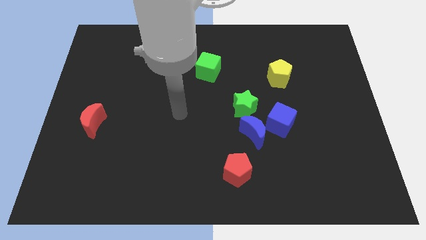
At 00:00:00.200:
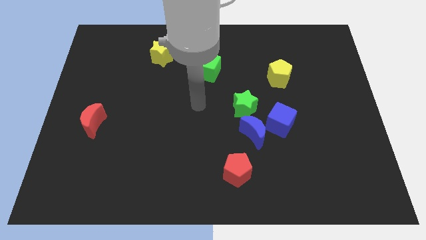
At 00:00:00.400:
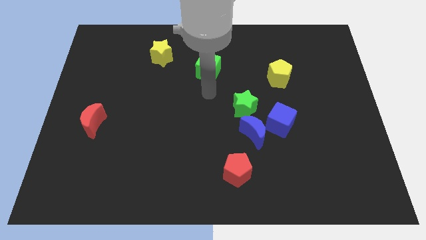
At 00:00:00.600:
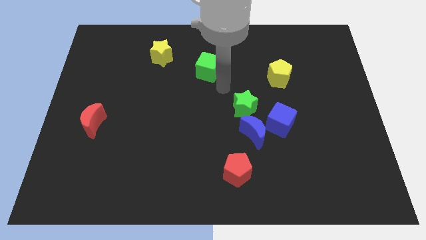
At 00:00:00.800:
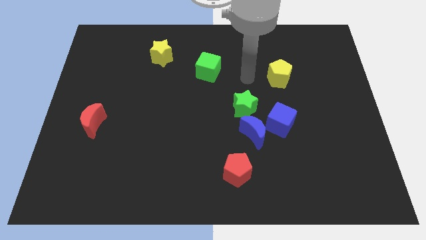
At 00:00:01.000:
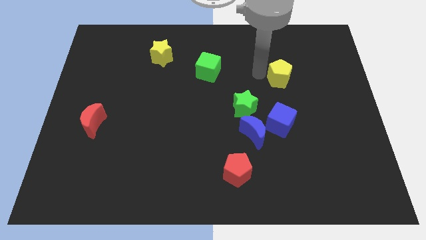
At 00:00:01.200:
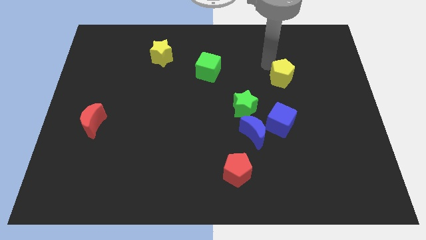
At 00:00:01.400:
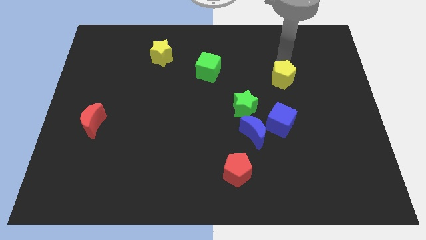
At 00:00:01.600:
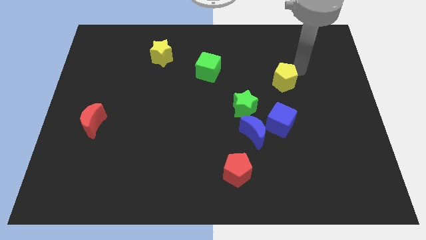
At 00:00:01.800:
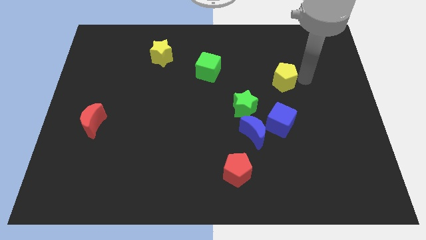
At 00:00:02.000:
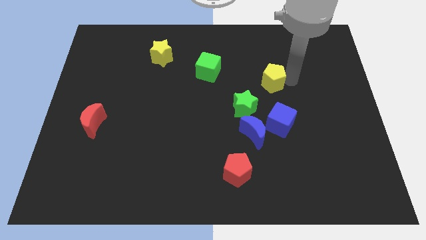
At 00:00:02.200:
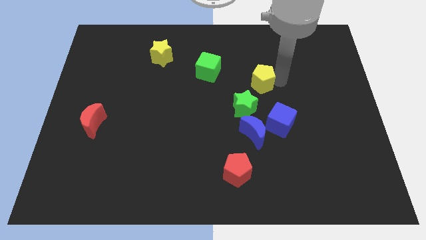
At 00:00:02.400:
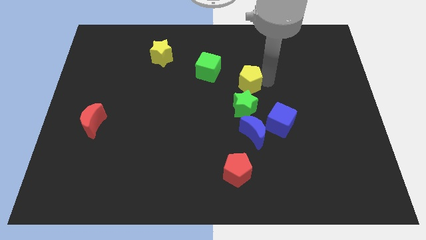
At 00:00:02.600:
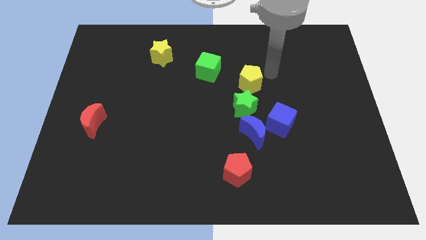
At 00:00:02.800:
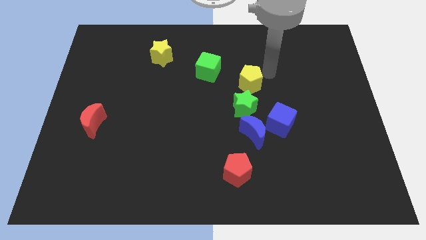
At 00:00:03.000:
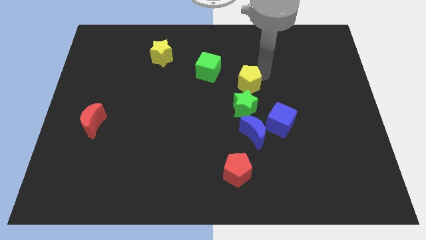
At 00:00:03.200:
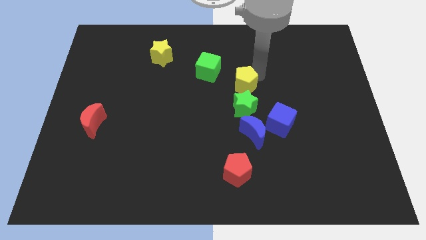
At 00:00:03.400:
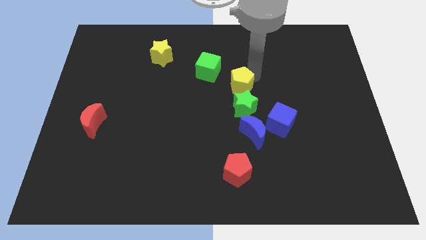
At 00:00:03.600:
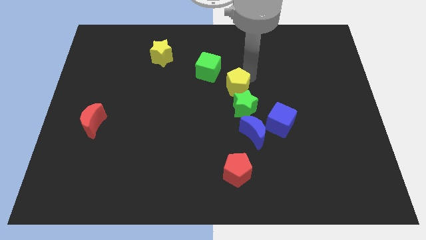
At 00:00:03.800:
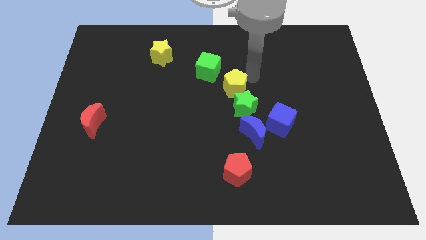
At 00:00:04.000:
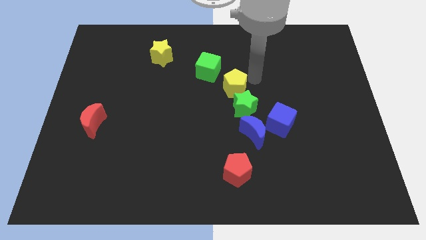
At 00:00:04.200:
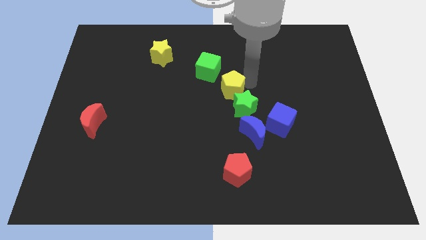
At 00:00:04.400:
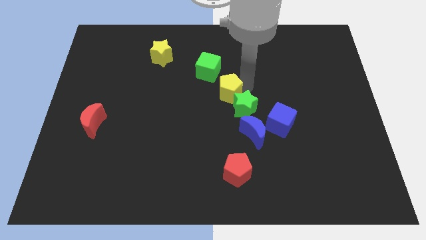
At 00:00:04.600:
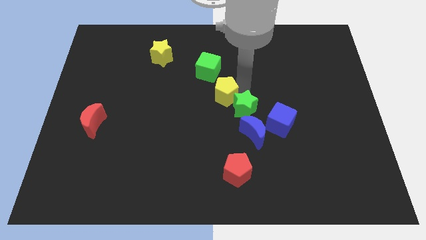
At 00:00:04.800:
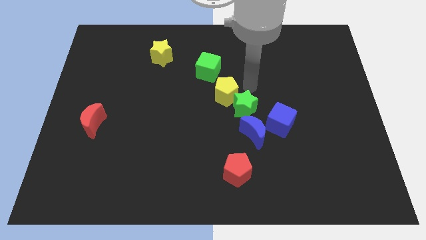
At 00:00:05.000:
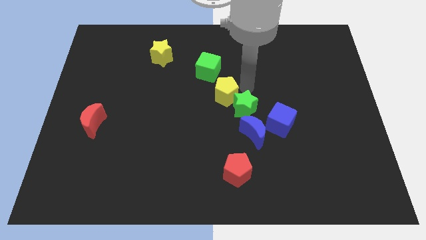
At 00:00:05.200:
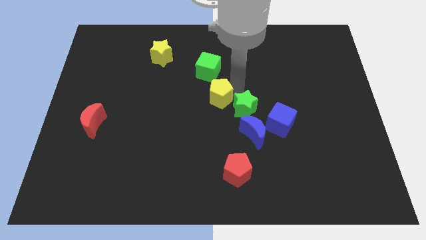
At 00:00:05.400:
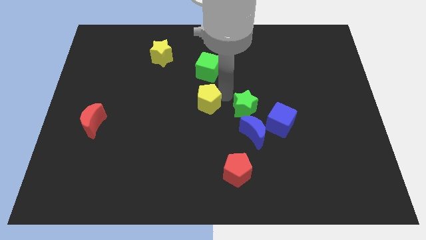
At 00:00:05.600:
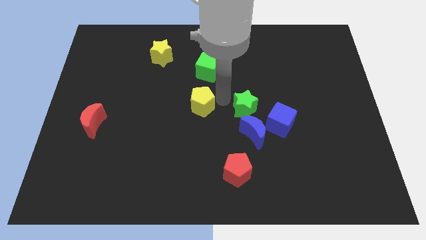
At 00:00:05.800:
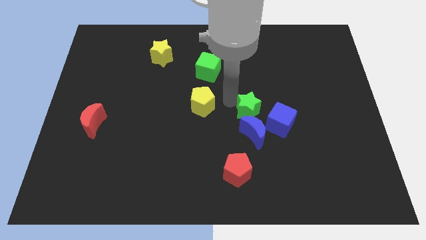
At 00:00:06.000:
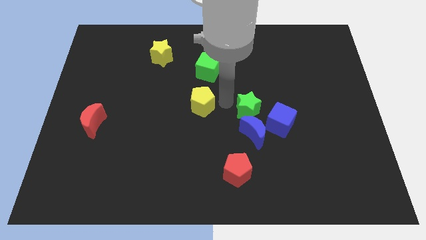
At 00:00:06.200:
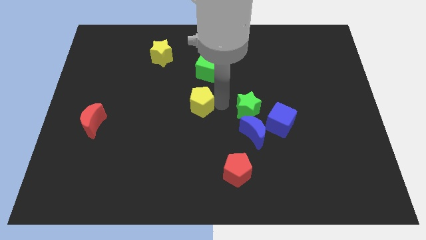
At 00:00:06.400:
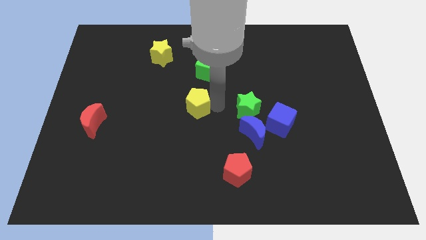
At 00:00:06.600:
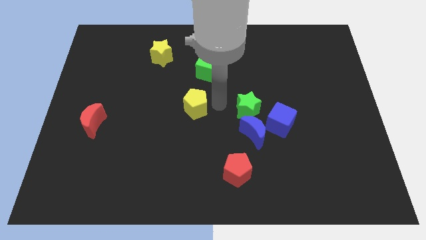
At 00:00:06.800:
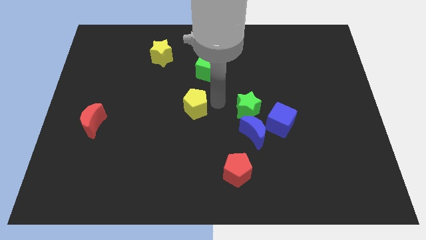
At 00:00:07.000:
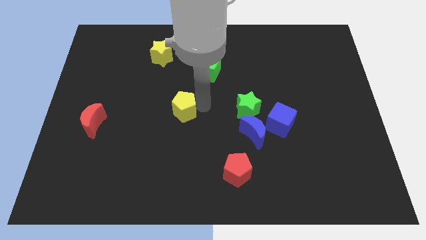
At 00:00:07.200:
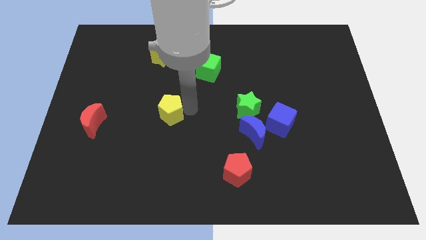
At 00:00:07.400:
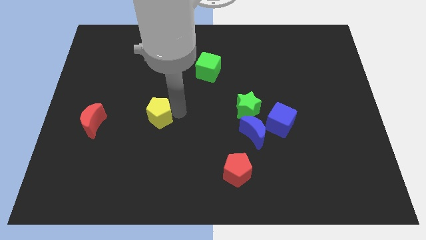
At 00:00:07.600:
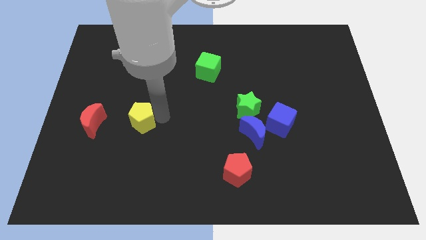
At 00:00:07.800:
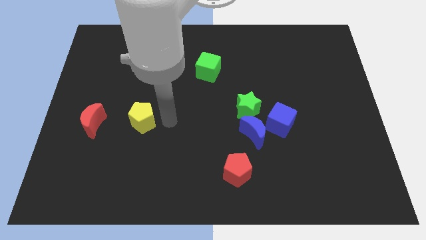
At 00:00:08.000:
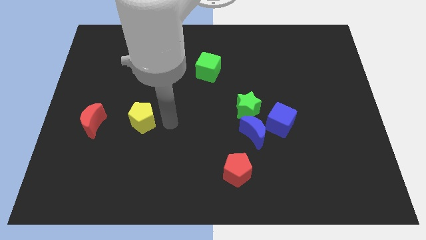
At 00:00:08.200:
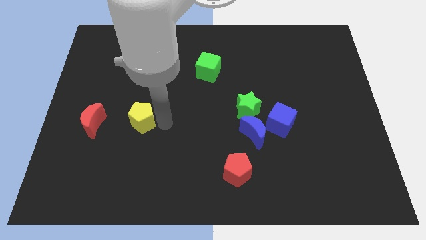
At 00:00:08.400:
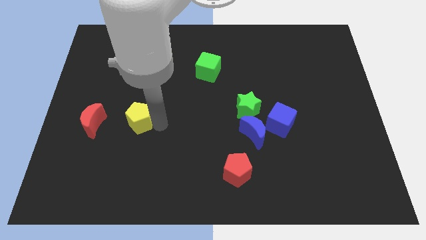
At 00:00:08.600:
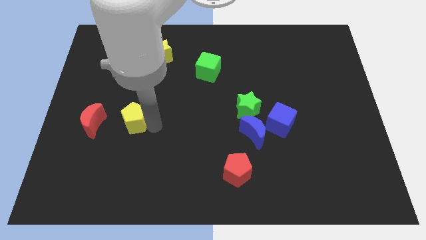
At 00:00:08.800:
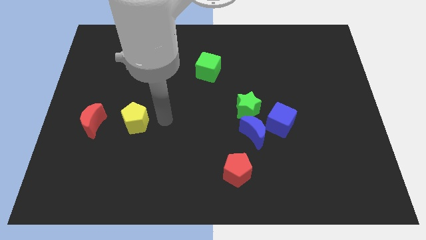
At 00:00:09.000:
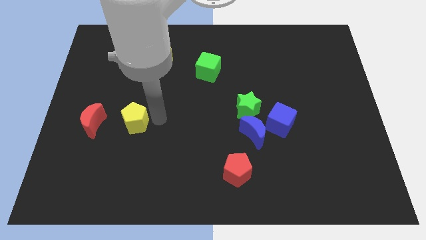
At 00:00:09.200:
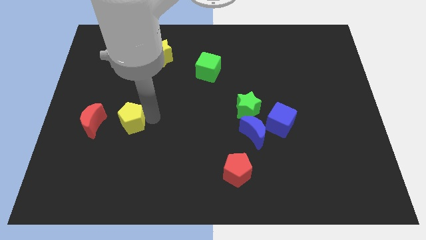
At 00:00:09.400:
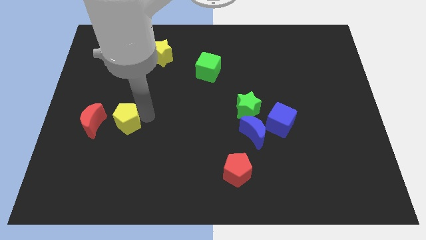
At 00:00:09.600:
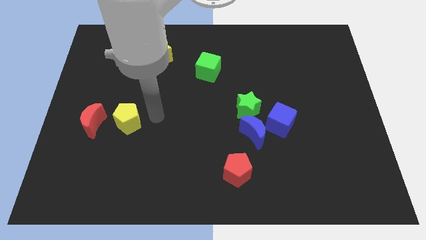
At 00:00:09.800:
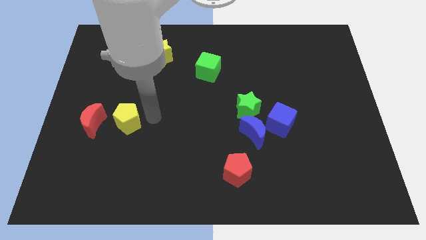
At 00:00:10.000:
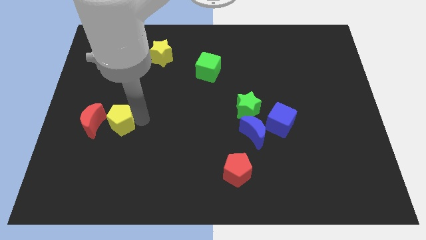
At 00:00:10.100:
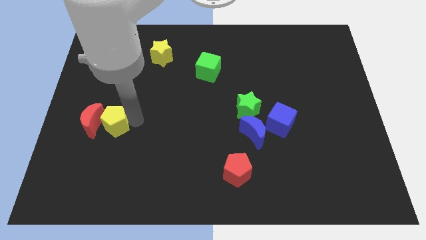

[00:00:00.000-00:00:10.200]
move the yellow pentagon towards the red moon

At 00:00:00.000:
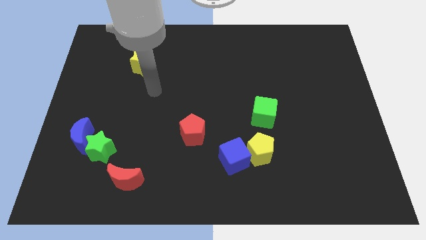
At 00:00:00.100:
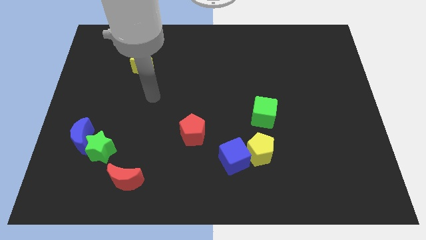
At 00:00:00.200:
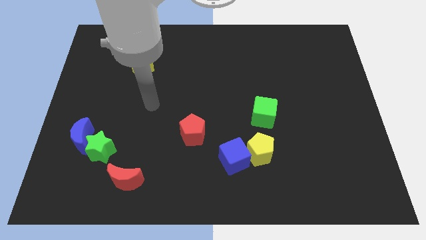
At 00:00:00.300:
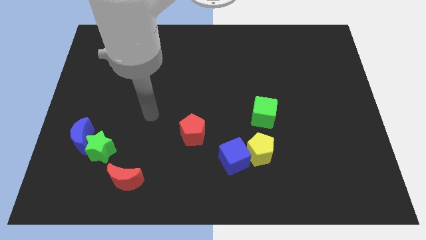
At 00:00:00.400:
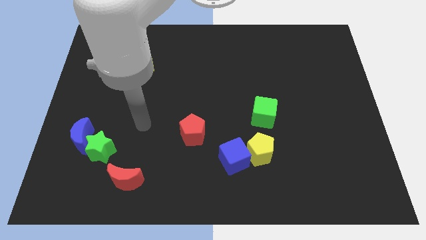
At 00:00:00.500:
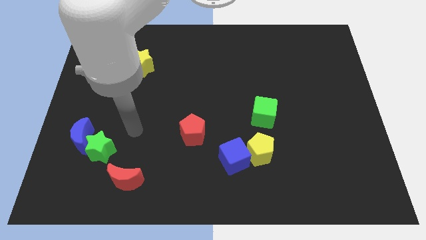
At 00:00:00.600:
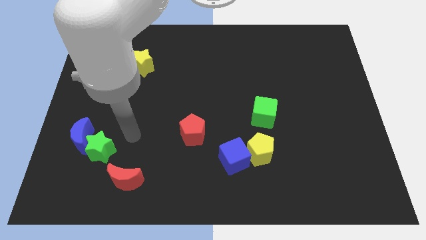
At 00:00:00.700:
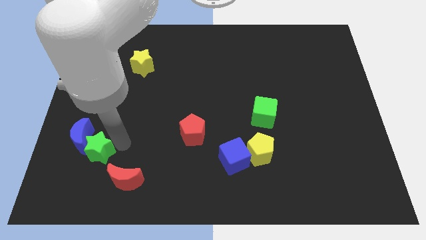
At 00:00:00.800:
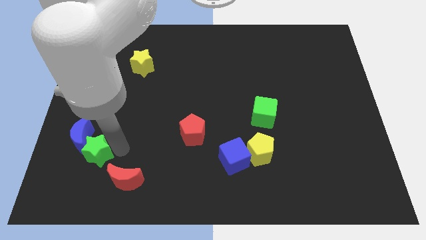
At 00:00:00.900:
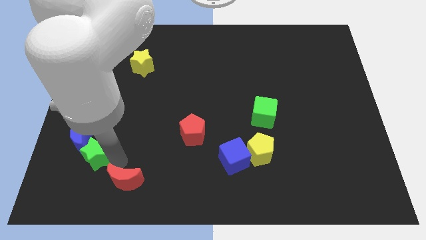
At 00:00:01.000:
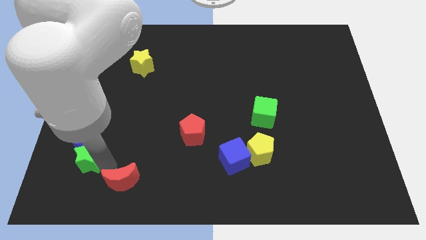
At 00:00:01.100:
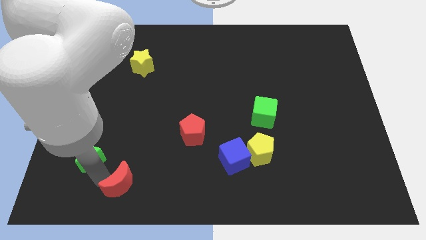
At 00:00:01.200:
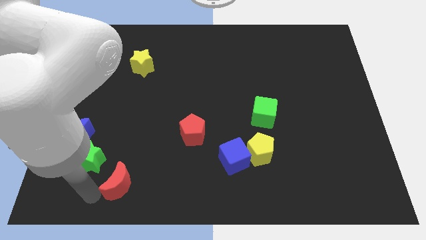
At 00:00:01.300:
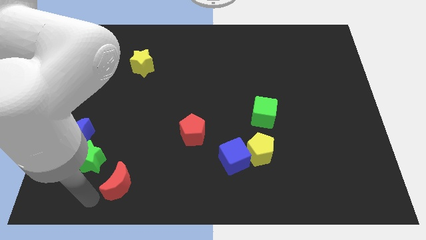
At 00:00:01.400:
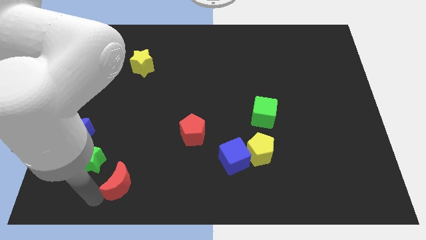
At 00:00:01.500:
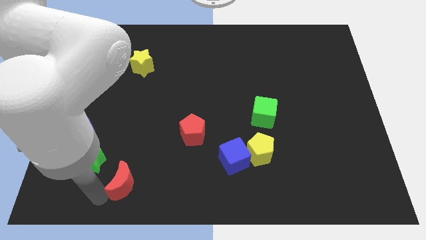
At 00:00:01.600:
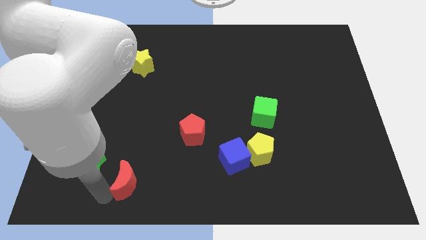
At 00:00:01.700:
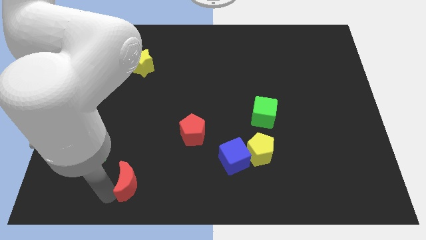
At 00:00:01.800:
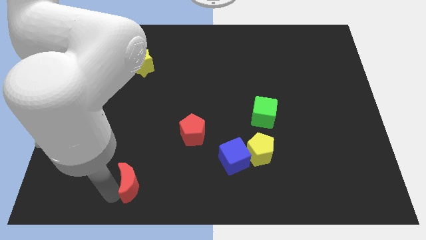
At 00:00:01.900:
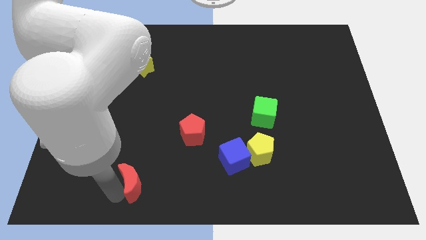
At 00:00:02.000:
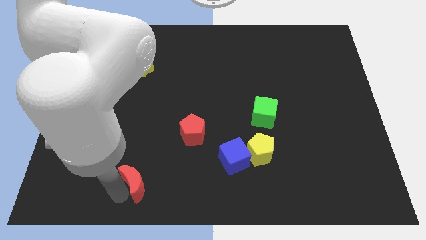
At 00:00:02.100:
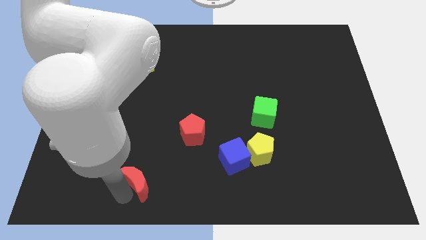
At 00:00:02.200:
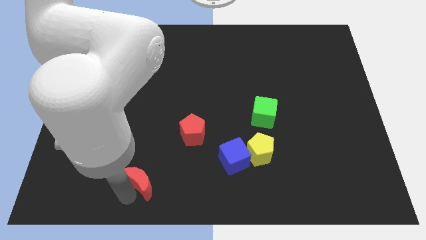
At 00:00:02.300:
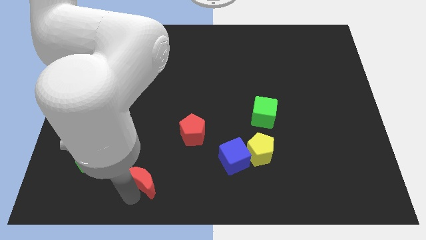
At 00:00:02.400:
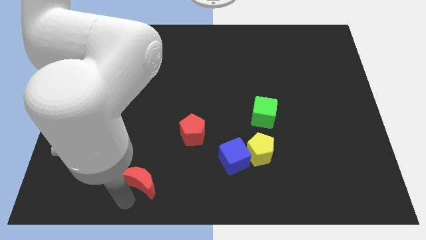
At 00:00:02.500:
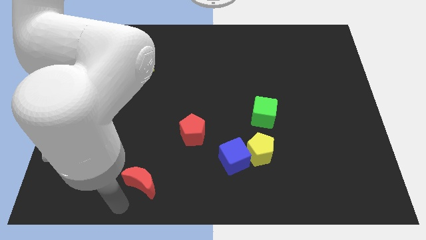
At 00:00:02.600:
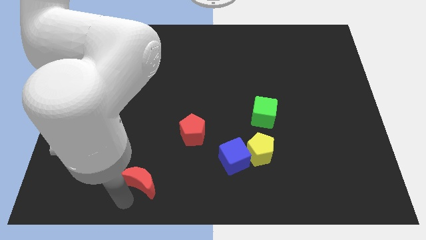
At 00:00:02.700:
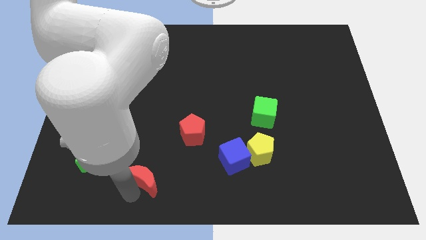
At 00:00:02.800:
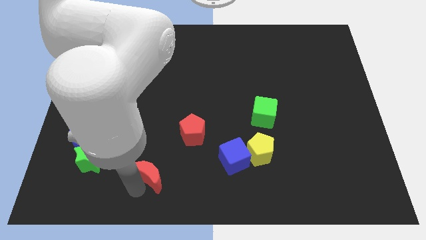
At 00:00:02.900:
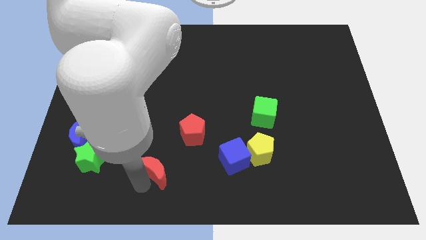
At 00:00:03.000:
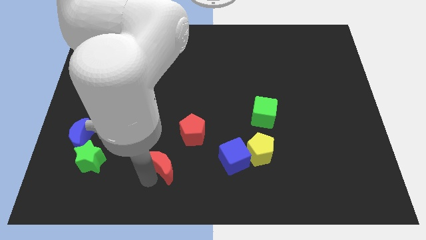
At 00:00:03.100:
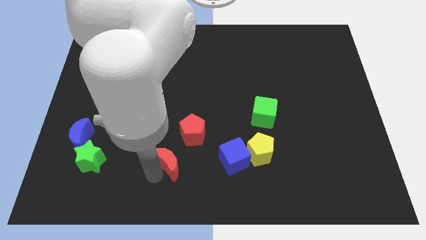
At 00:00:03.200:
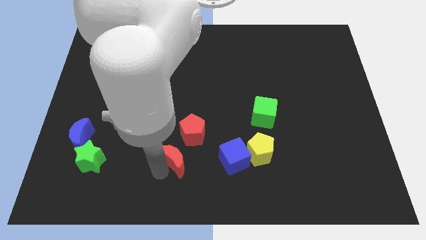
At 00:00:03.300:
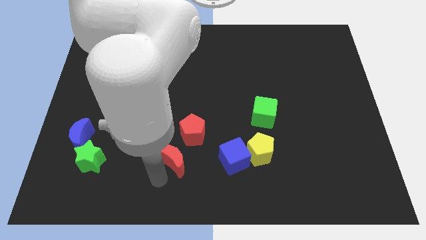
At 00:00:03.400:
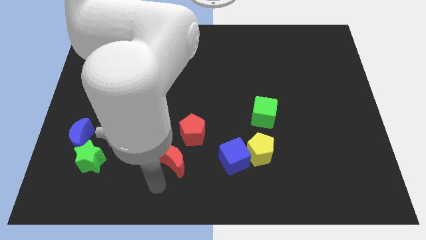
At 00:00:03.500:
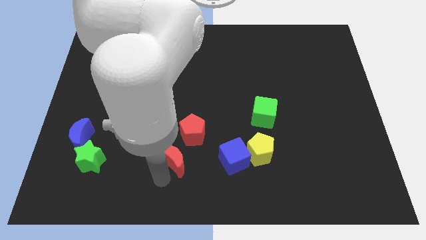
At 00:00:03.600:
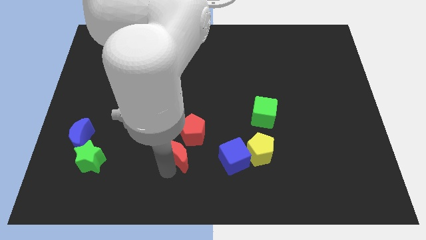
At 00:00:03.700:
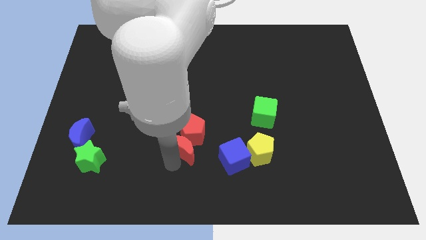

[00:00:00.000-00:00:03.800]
slide the red moon next to the red pentagon
